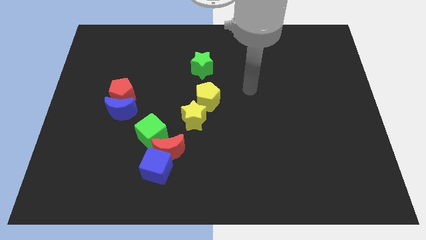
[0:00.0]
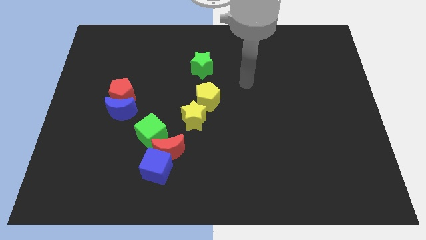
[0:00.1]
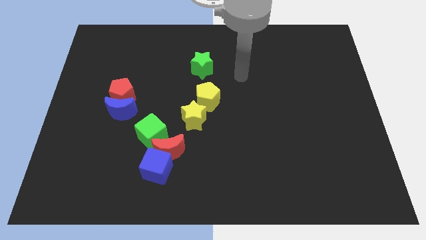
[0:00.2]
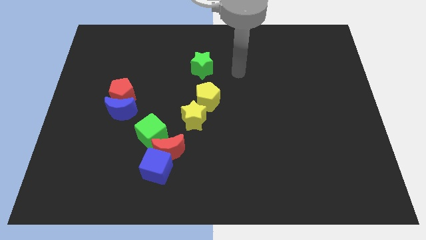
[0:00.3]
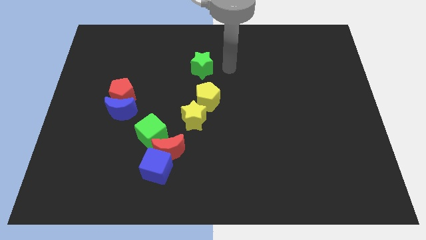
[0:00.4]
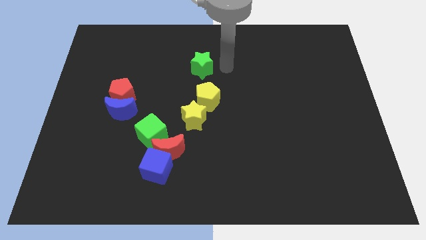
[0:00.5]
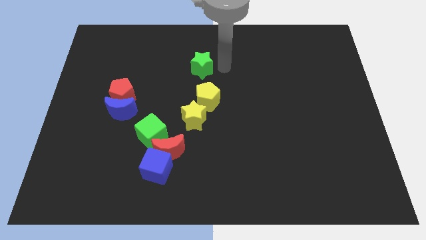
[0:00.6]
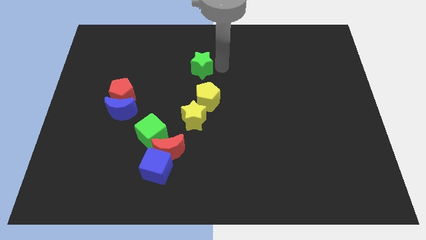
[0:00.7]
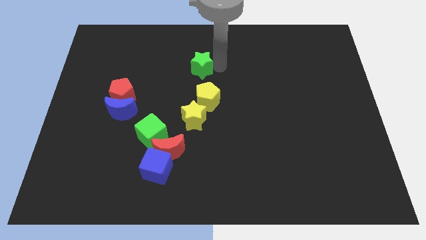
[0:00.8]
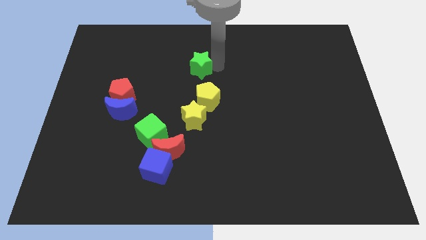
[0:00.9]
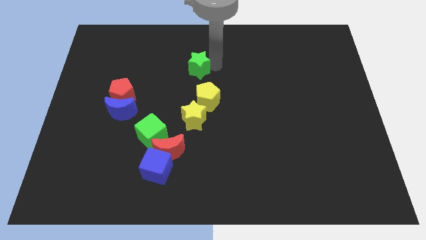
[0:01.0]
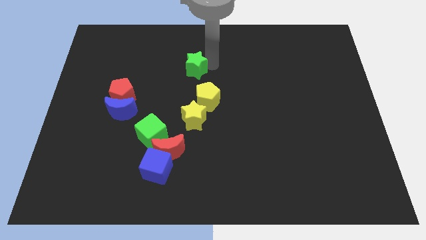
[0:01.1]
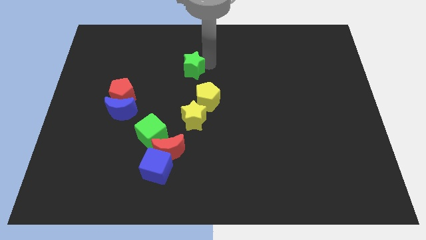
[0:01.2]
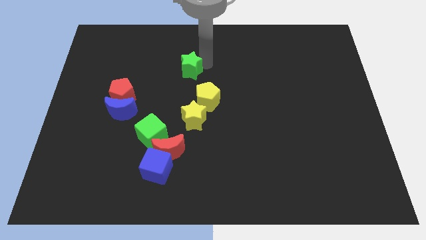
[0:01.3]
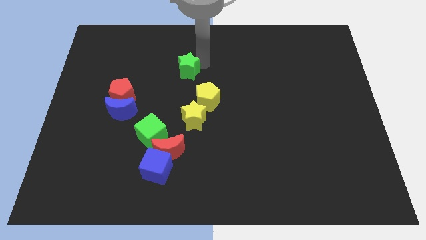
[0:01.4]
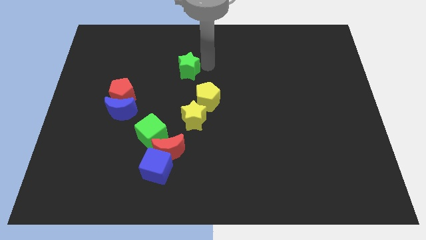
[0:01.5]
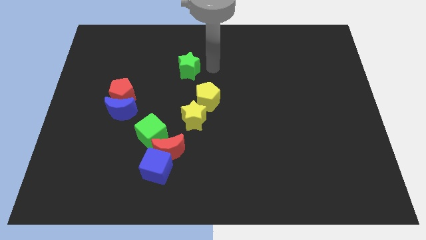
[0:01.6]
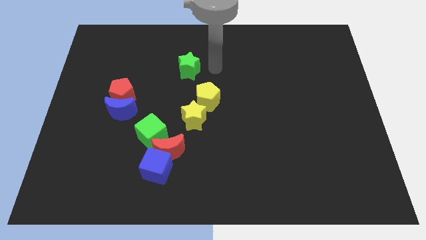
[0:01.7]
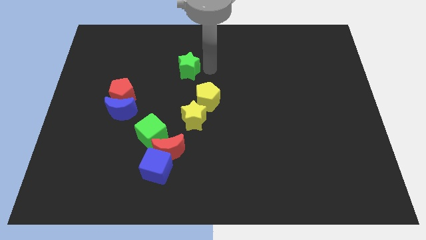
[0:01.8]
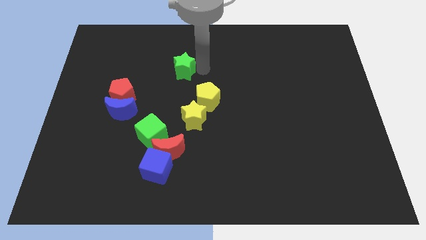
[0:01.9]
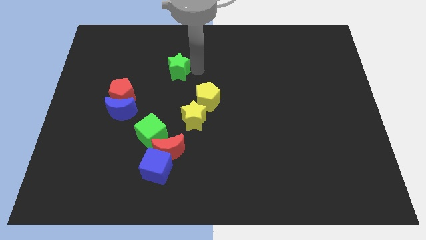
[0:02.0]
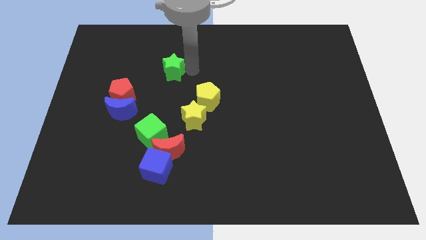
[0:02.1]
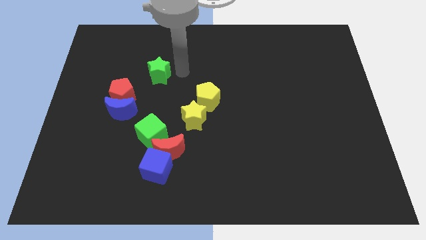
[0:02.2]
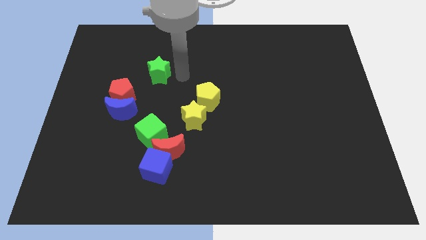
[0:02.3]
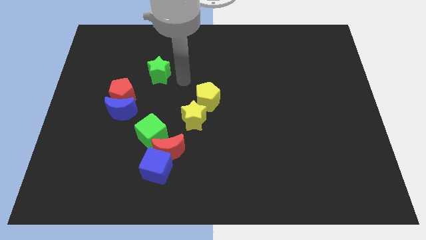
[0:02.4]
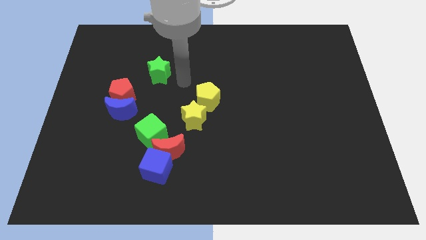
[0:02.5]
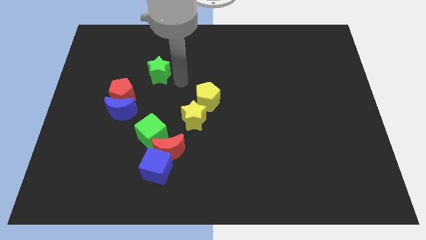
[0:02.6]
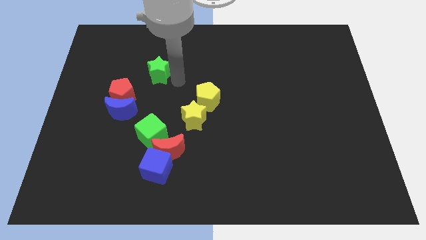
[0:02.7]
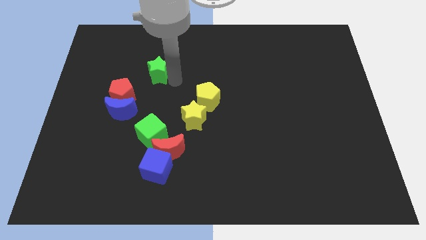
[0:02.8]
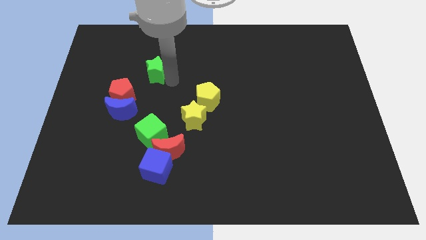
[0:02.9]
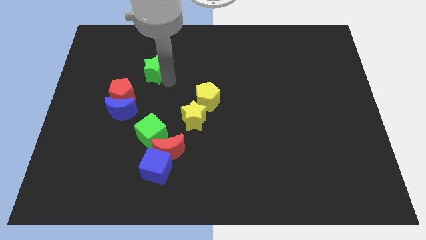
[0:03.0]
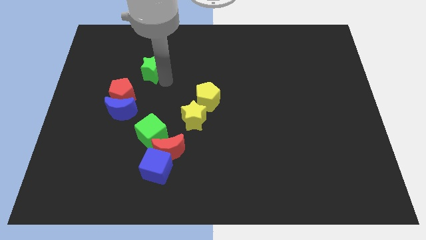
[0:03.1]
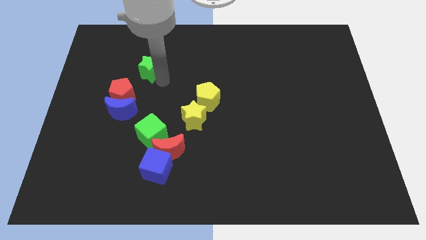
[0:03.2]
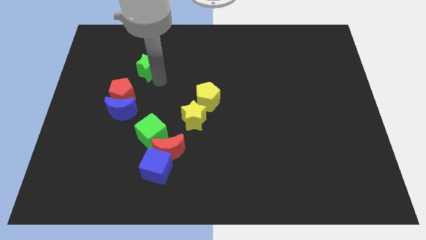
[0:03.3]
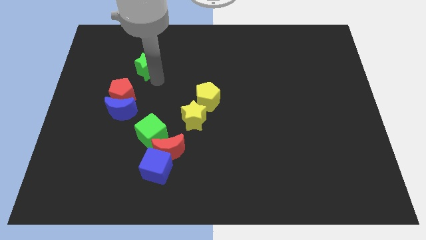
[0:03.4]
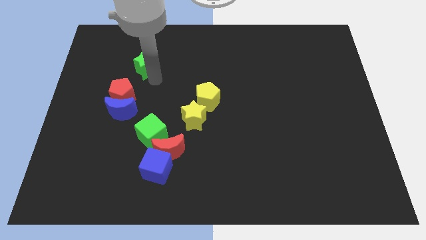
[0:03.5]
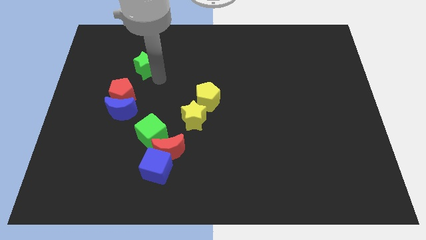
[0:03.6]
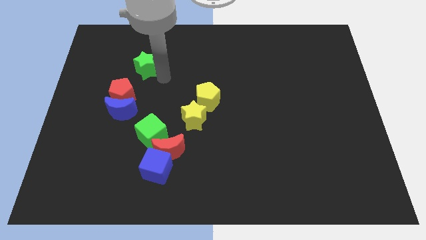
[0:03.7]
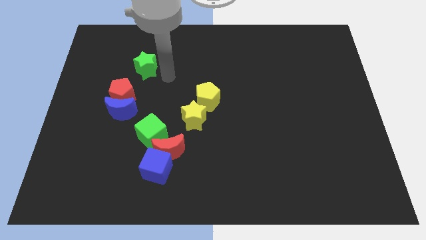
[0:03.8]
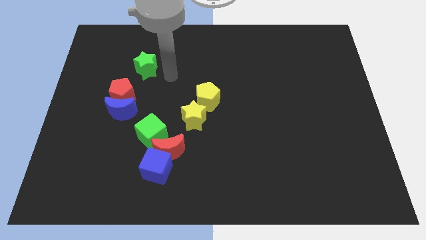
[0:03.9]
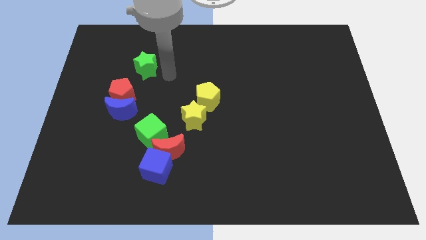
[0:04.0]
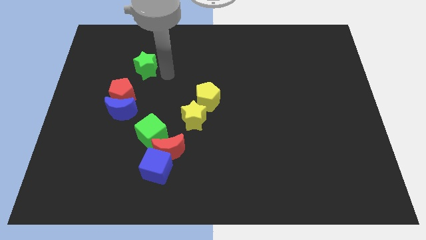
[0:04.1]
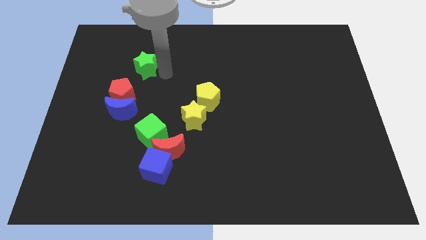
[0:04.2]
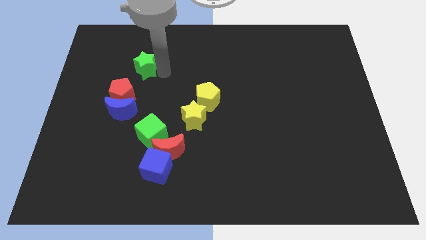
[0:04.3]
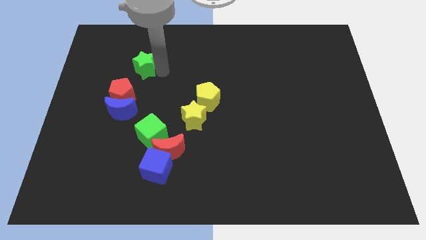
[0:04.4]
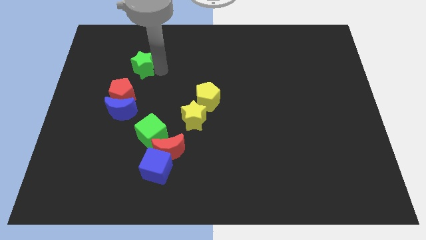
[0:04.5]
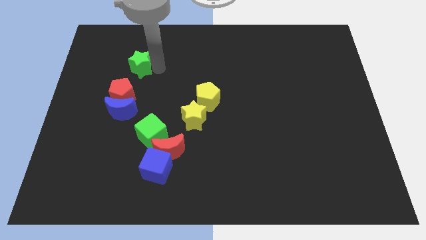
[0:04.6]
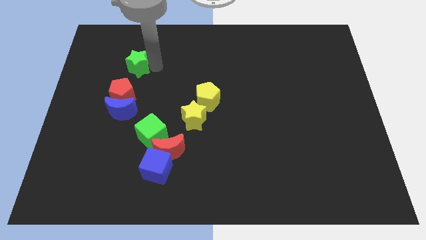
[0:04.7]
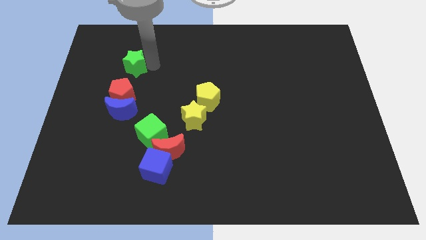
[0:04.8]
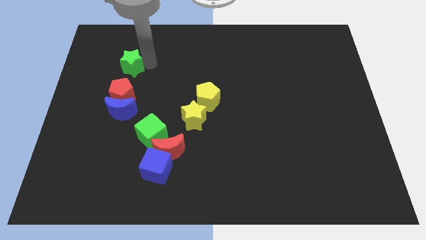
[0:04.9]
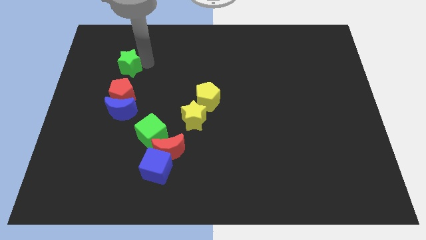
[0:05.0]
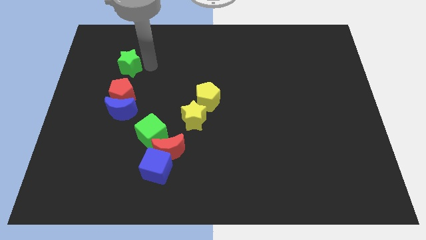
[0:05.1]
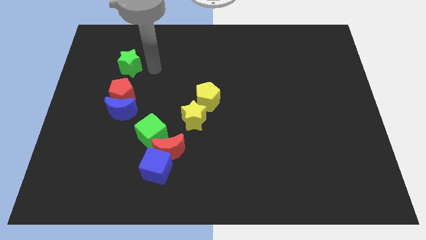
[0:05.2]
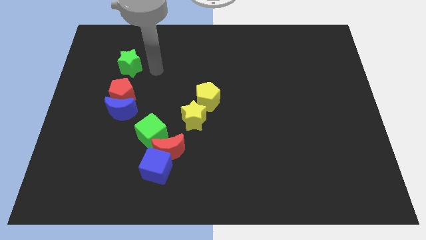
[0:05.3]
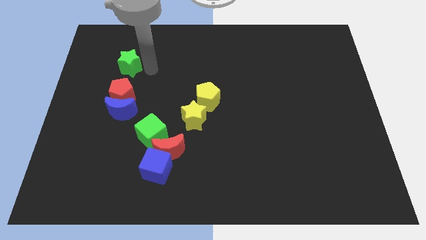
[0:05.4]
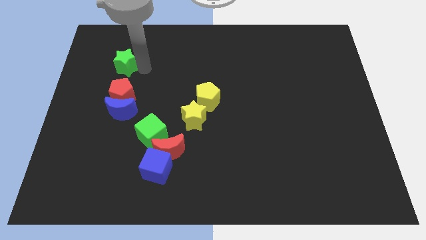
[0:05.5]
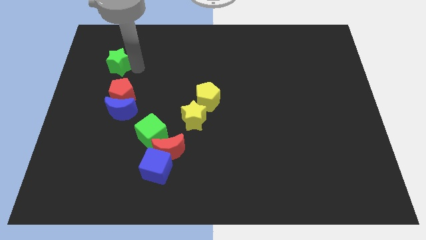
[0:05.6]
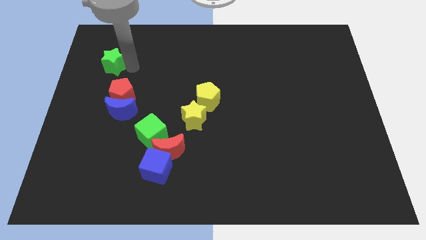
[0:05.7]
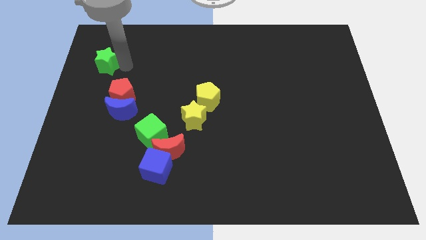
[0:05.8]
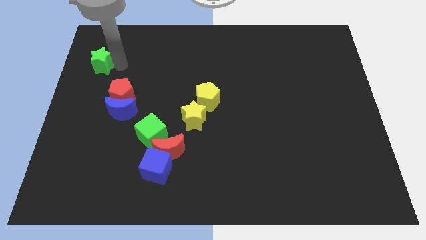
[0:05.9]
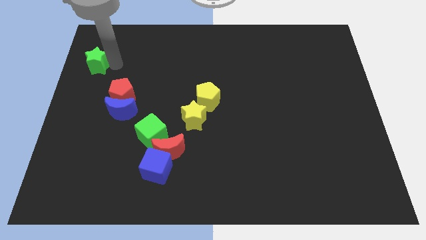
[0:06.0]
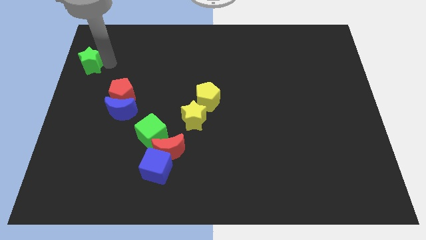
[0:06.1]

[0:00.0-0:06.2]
slide the green star to the left side

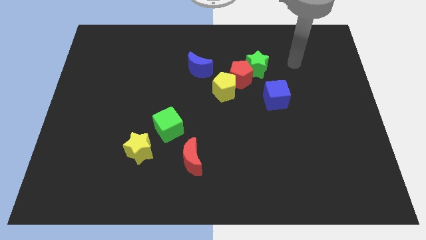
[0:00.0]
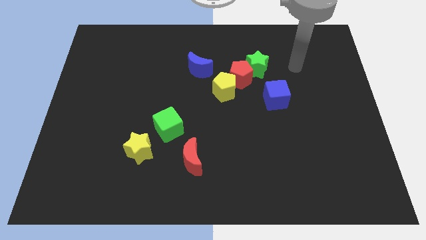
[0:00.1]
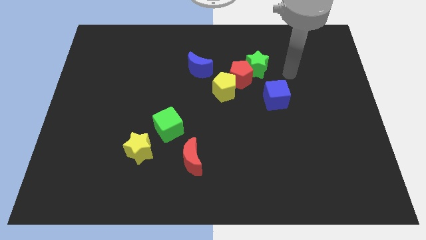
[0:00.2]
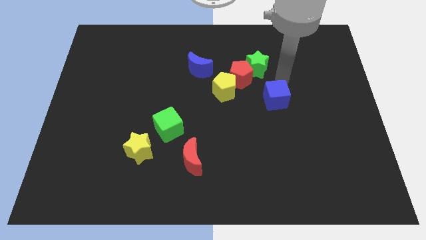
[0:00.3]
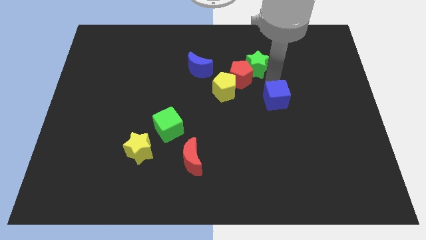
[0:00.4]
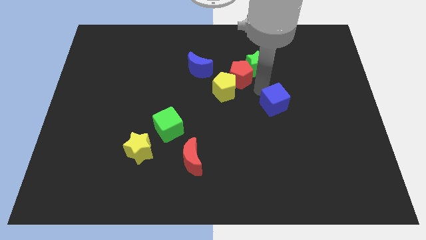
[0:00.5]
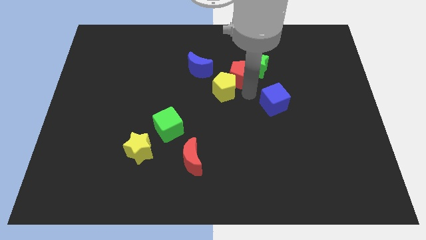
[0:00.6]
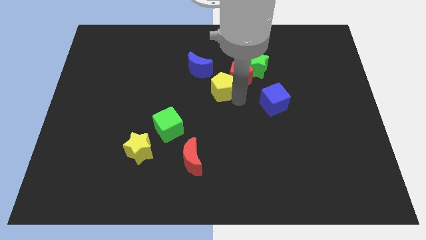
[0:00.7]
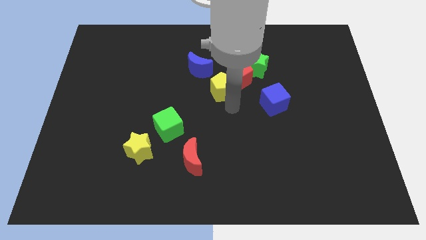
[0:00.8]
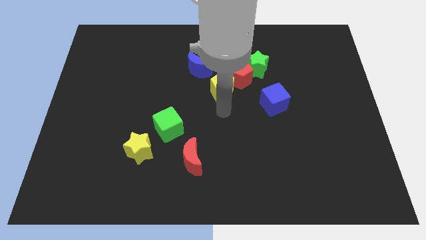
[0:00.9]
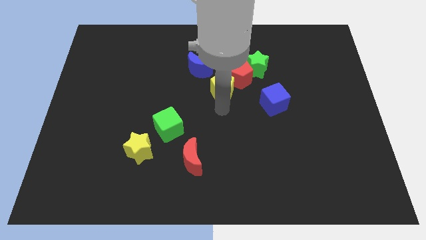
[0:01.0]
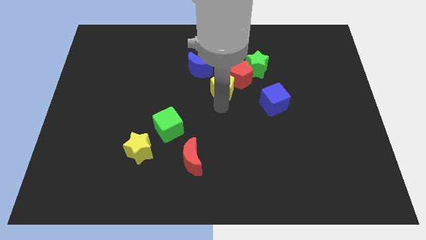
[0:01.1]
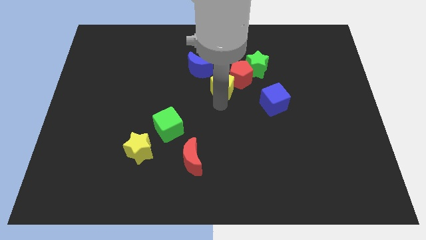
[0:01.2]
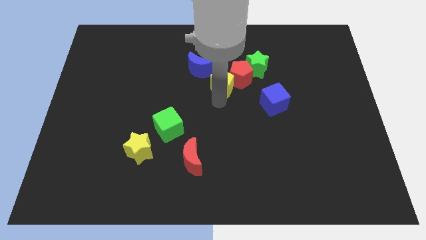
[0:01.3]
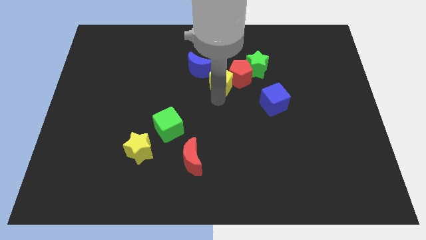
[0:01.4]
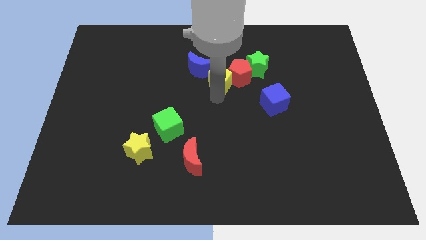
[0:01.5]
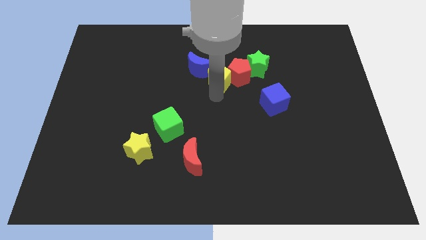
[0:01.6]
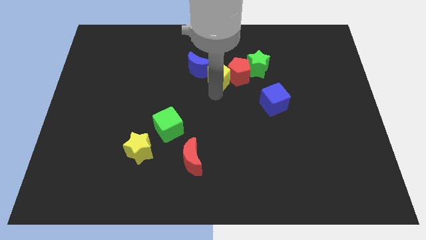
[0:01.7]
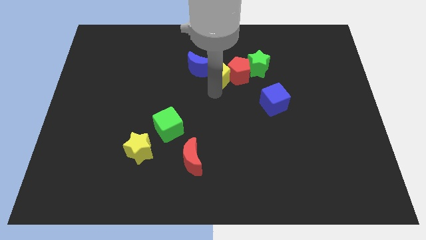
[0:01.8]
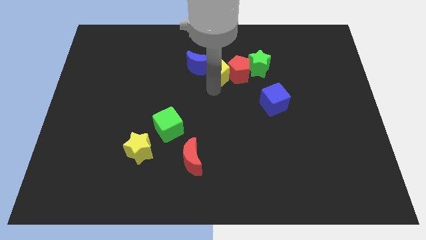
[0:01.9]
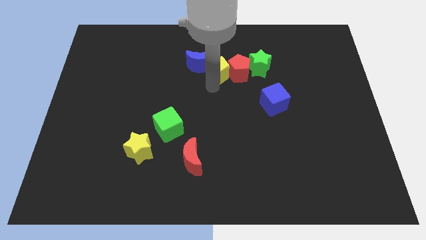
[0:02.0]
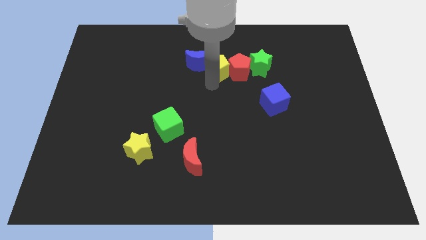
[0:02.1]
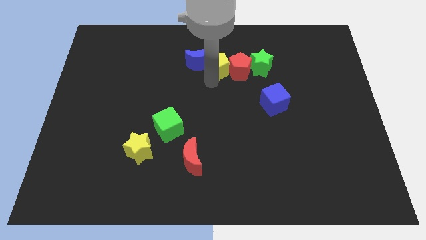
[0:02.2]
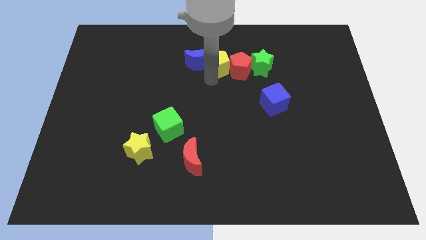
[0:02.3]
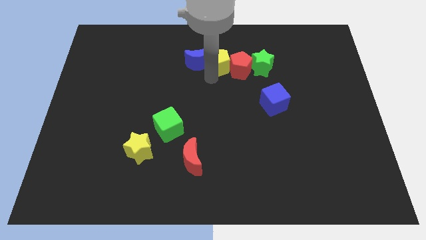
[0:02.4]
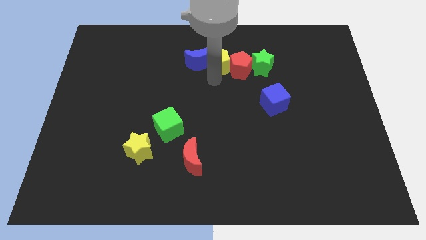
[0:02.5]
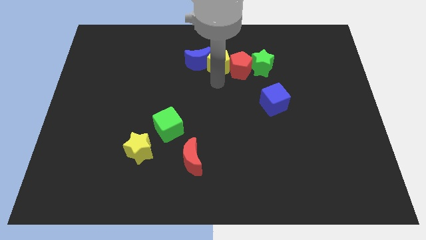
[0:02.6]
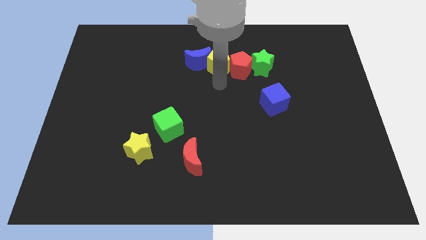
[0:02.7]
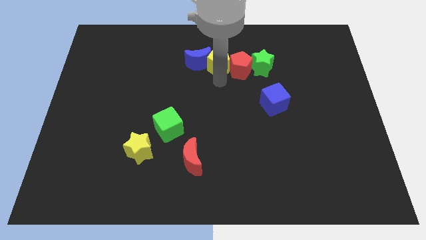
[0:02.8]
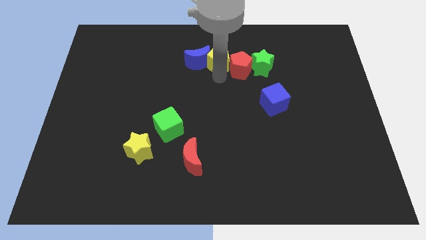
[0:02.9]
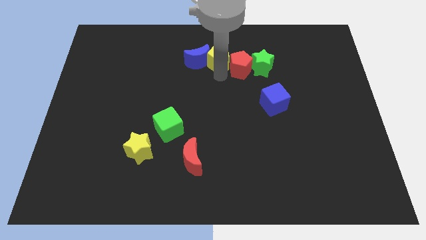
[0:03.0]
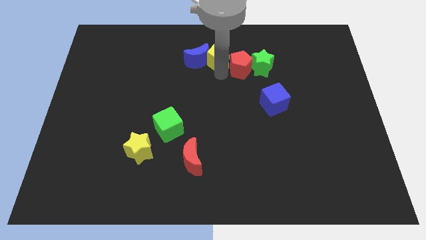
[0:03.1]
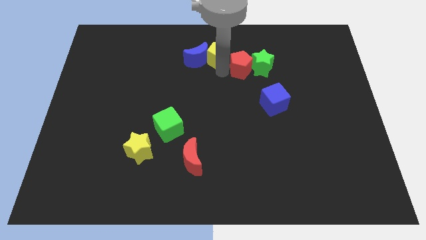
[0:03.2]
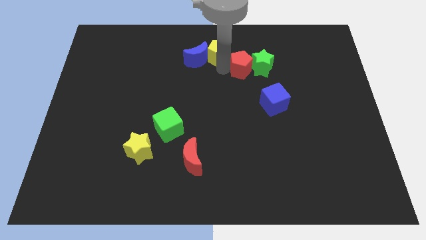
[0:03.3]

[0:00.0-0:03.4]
push the yellow pentagon to the top
